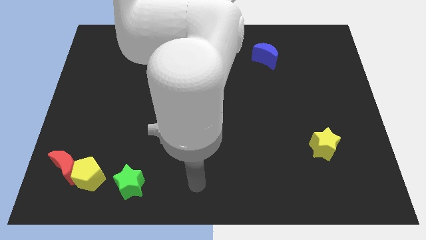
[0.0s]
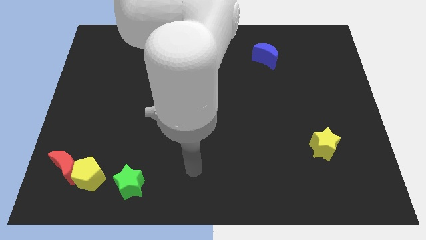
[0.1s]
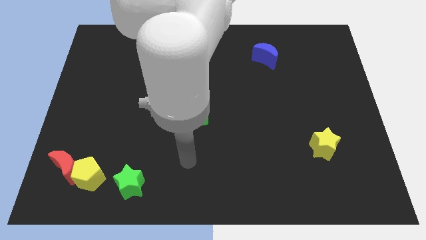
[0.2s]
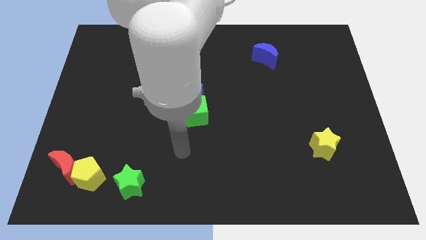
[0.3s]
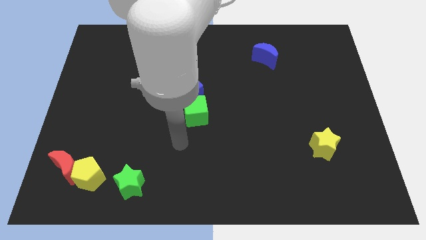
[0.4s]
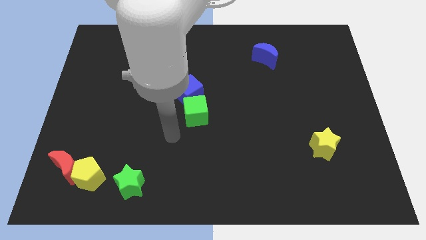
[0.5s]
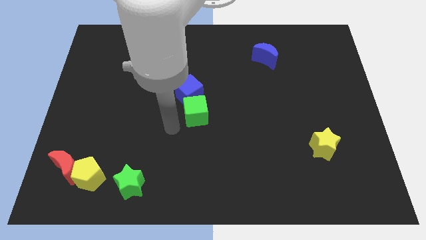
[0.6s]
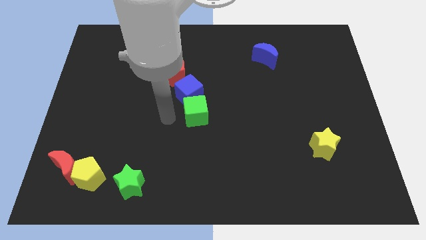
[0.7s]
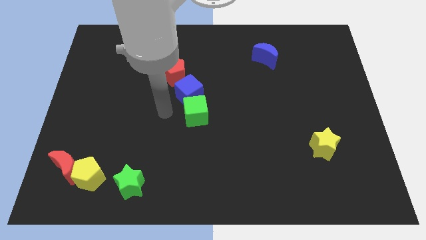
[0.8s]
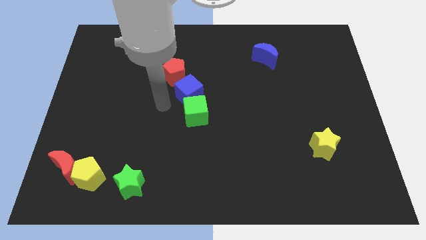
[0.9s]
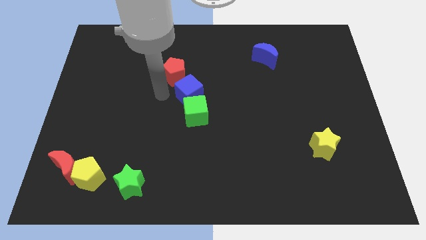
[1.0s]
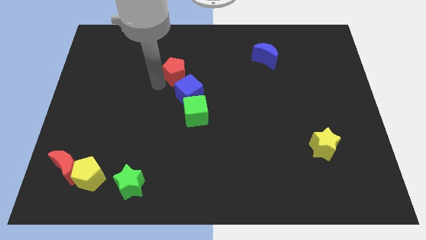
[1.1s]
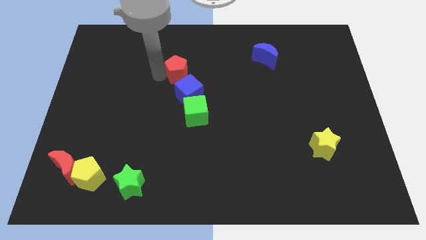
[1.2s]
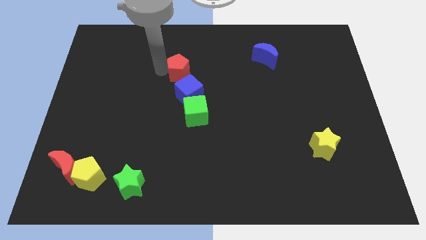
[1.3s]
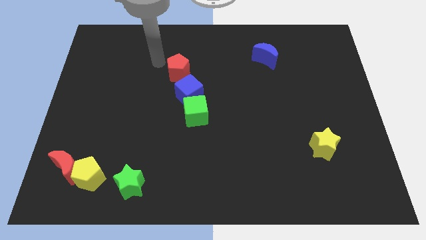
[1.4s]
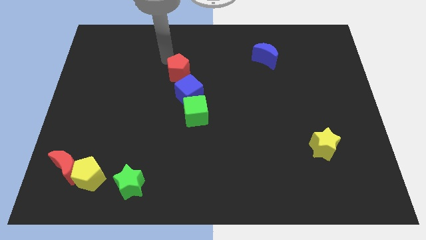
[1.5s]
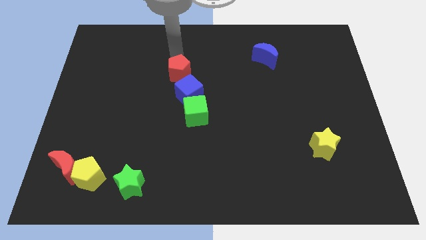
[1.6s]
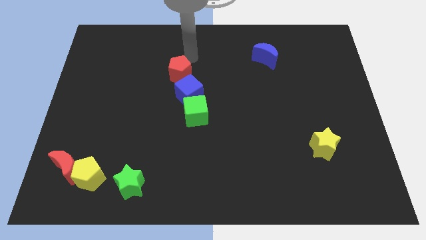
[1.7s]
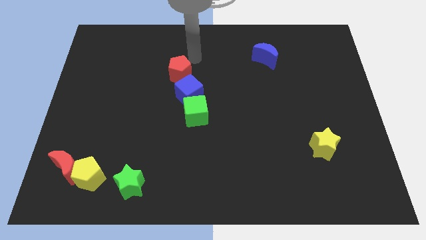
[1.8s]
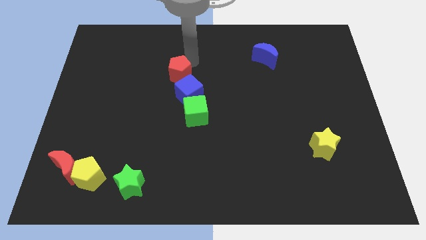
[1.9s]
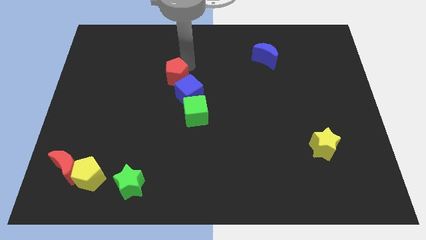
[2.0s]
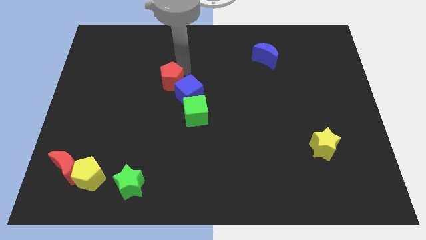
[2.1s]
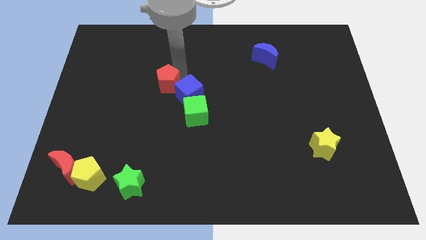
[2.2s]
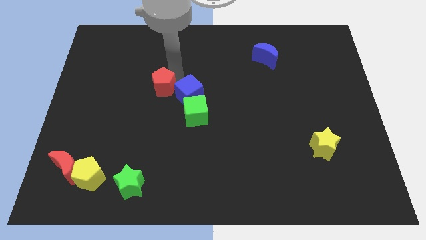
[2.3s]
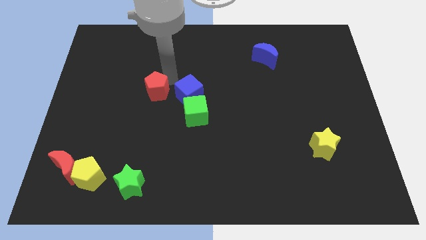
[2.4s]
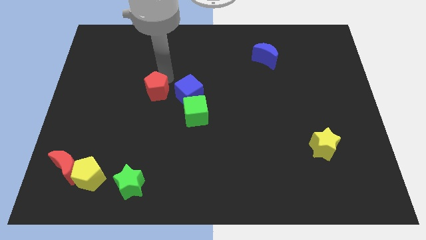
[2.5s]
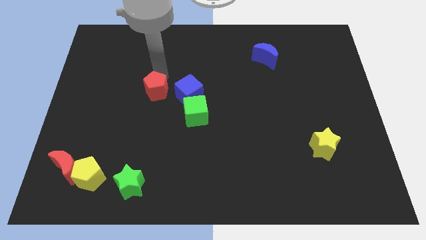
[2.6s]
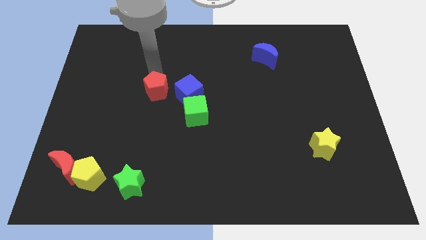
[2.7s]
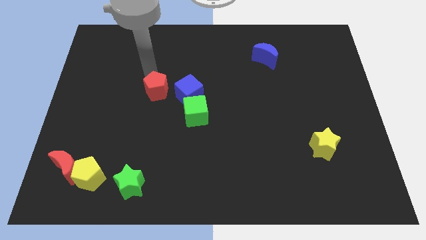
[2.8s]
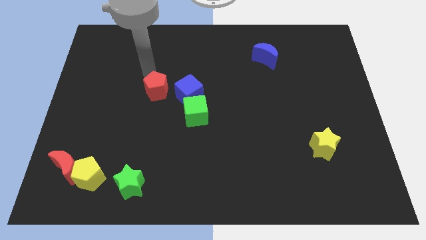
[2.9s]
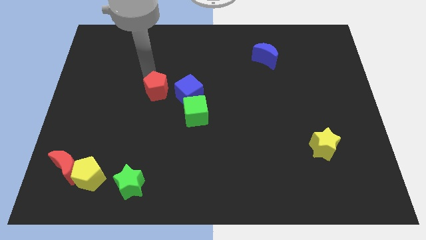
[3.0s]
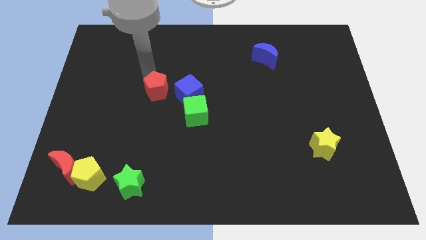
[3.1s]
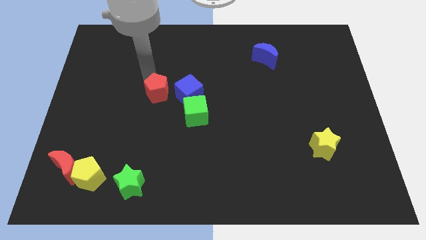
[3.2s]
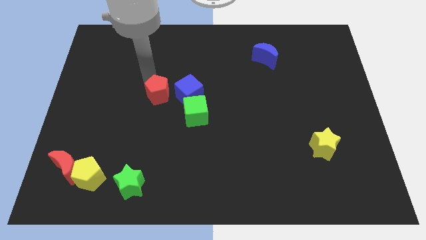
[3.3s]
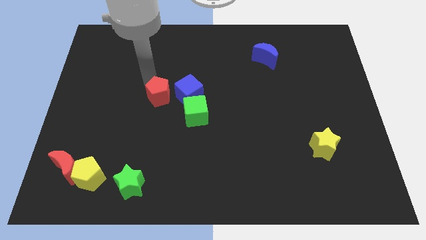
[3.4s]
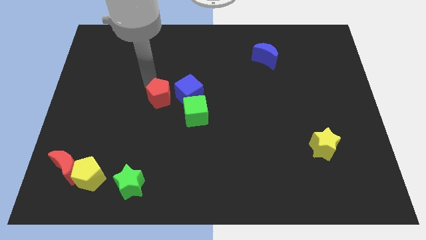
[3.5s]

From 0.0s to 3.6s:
slightly push the red pentagon down

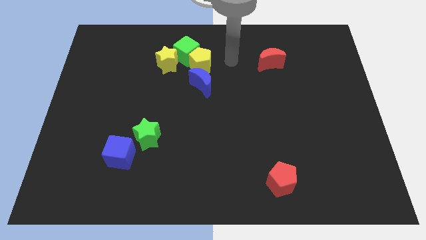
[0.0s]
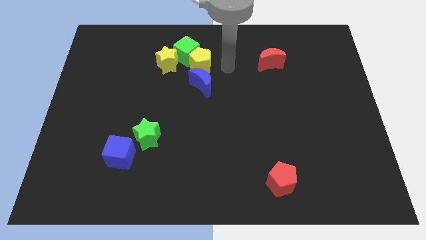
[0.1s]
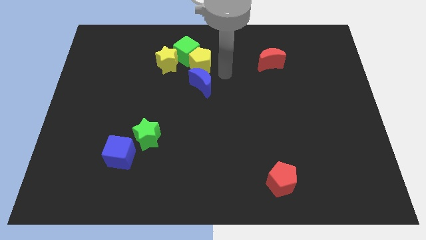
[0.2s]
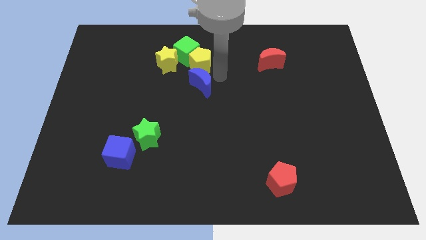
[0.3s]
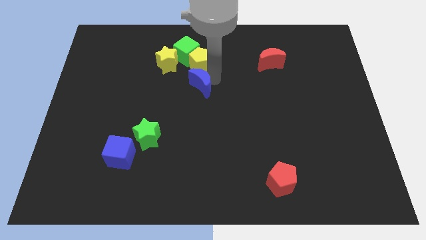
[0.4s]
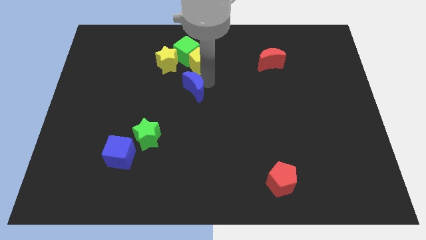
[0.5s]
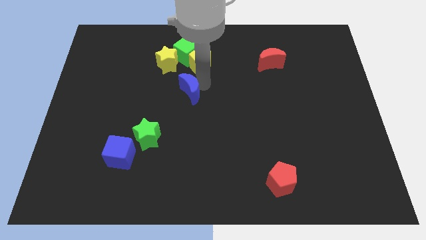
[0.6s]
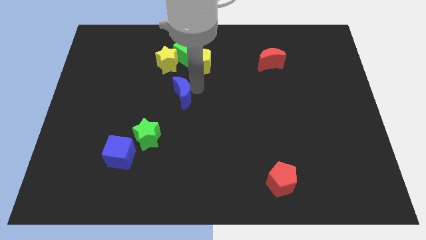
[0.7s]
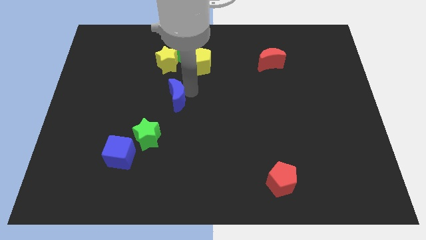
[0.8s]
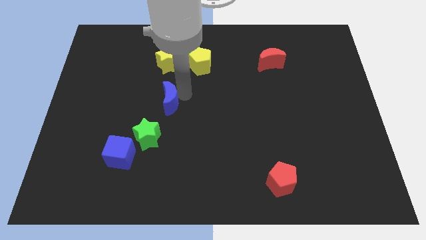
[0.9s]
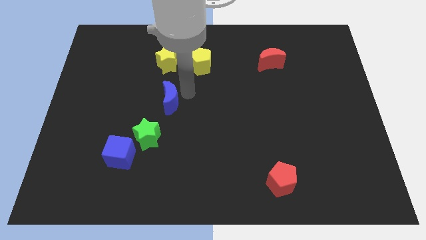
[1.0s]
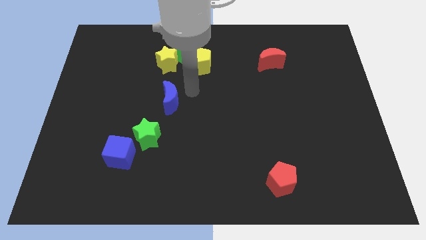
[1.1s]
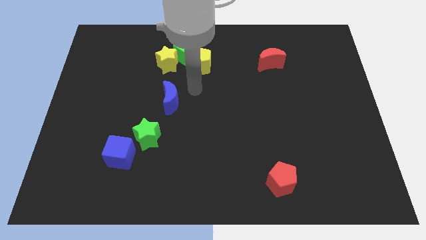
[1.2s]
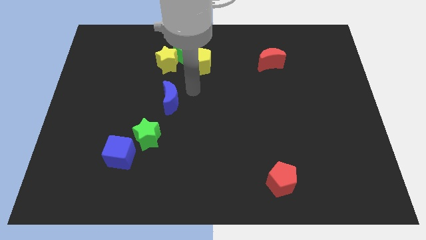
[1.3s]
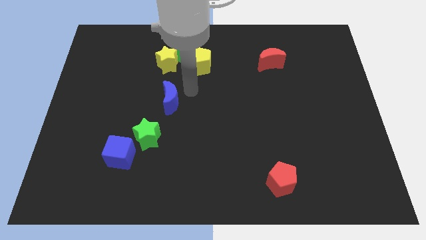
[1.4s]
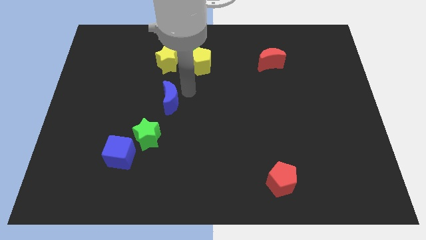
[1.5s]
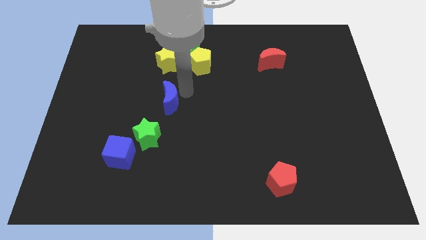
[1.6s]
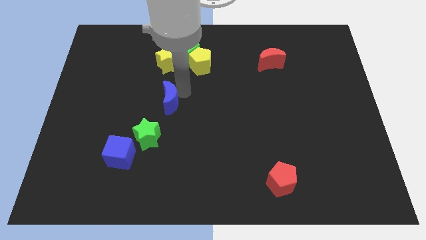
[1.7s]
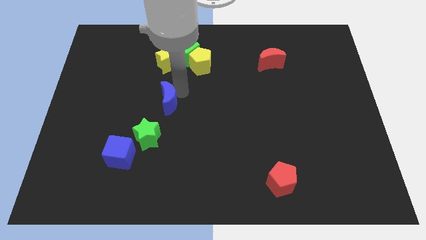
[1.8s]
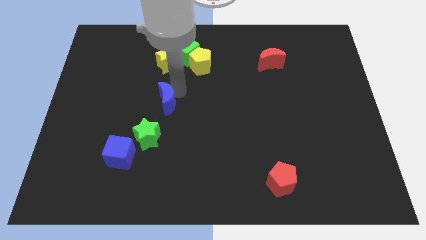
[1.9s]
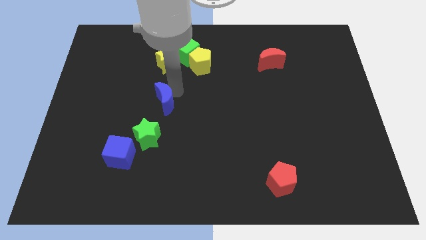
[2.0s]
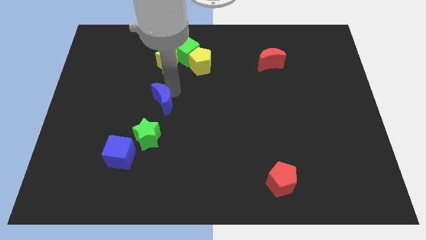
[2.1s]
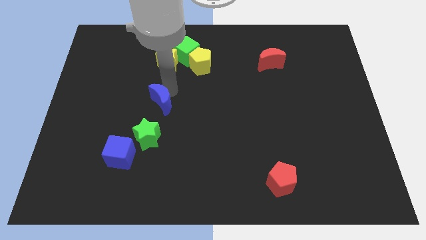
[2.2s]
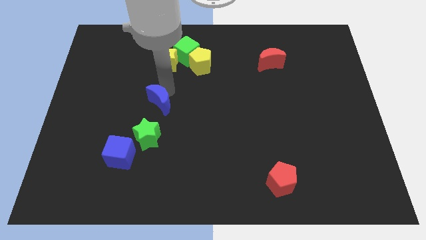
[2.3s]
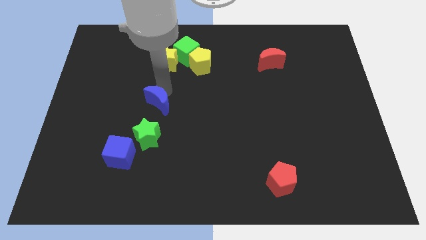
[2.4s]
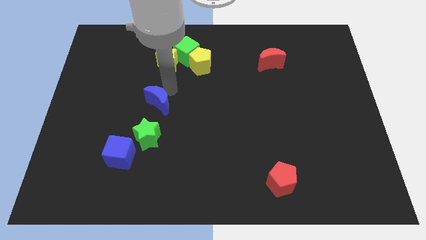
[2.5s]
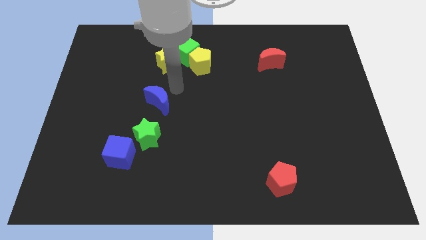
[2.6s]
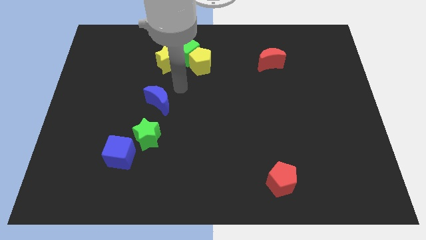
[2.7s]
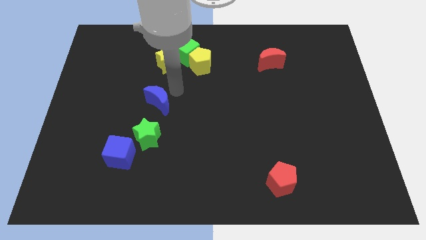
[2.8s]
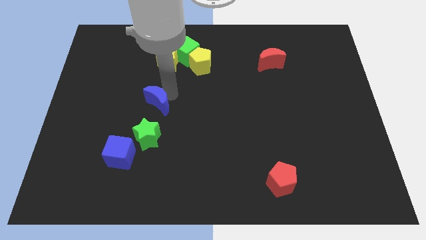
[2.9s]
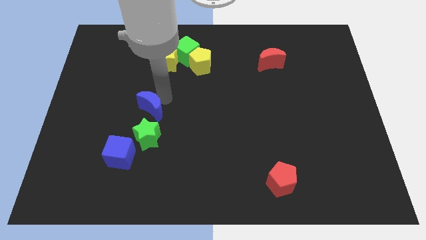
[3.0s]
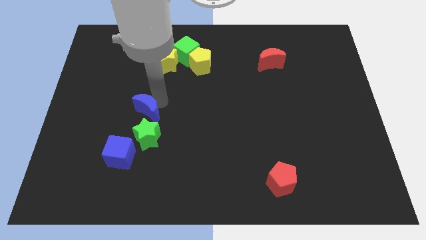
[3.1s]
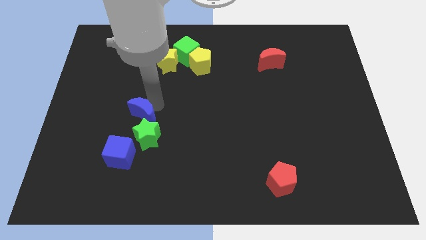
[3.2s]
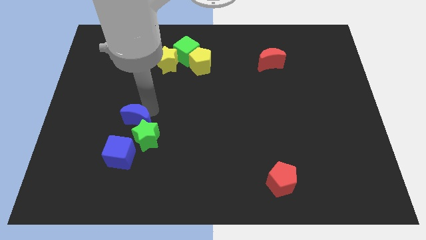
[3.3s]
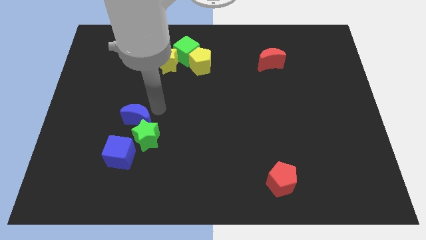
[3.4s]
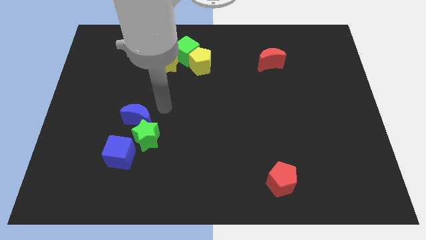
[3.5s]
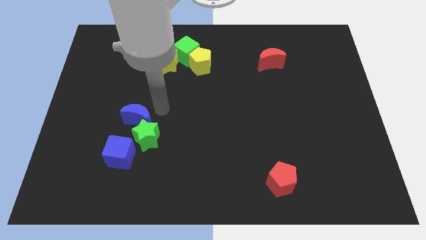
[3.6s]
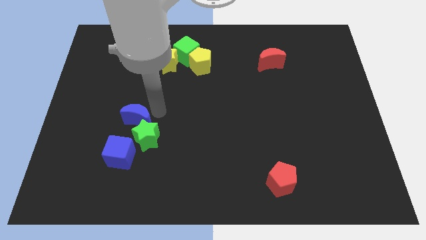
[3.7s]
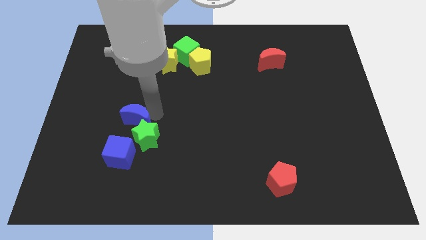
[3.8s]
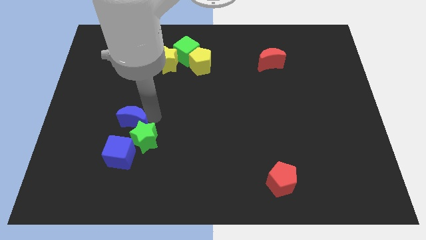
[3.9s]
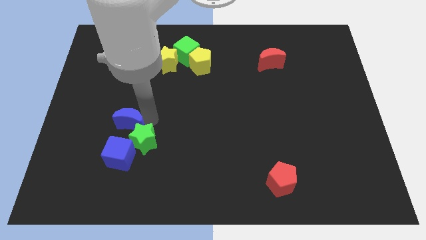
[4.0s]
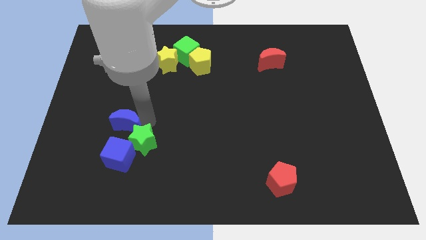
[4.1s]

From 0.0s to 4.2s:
push the blue moon down and left diagonally

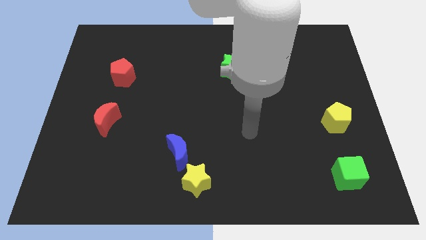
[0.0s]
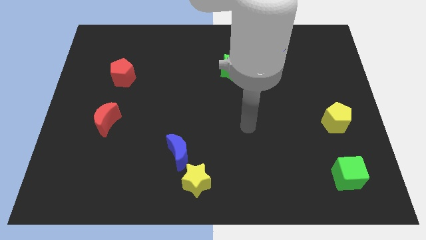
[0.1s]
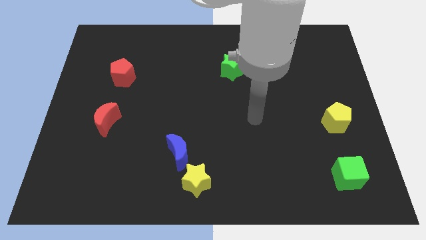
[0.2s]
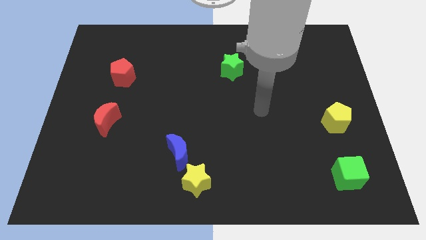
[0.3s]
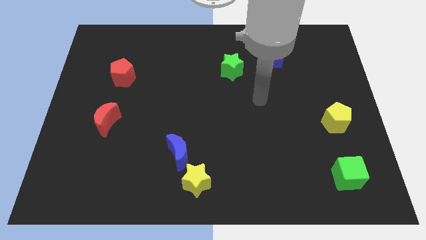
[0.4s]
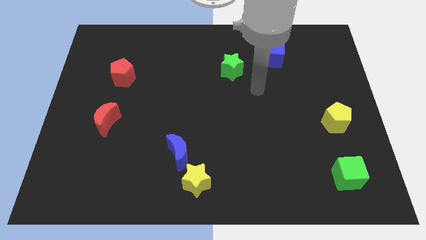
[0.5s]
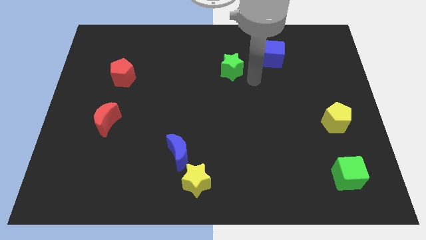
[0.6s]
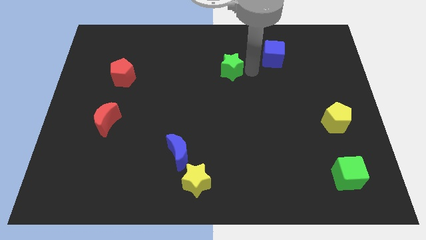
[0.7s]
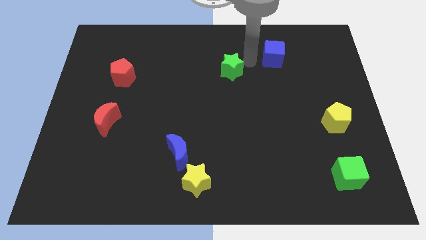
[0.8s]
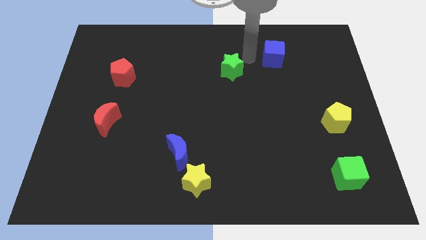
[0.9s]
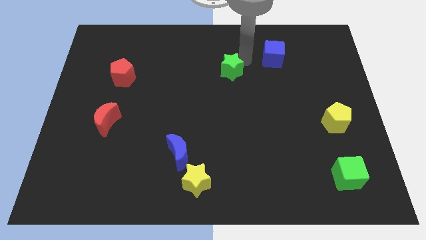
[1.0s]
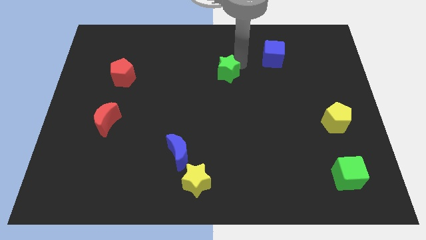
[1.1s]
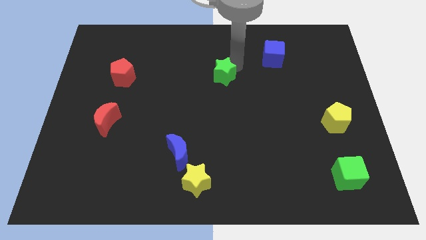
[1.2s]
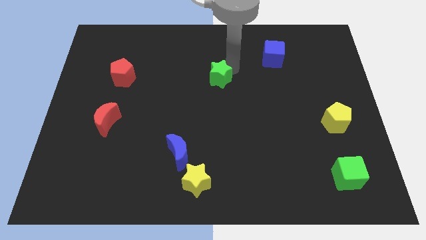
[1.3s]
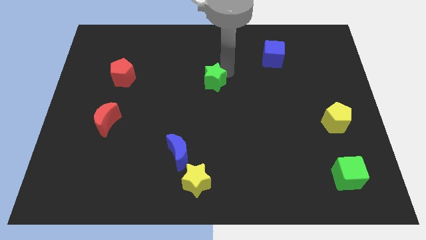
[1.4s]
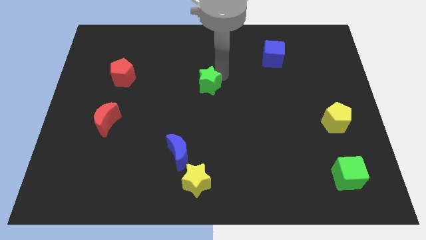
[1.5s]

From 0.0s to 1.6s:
slightly slide the green star downwards and left diagonally
